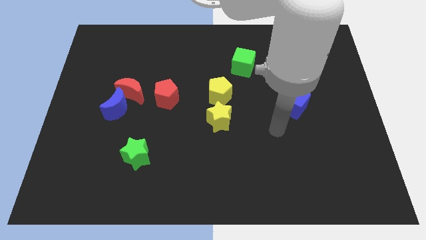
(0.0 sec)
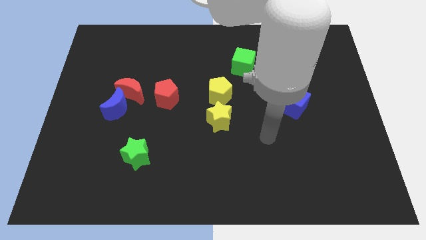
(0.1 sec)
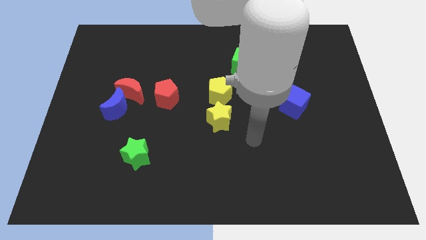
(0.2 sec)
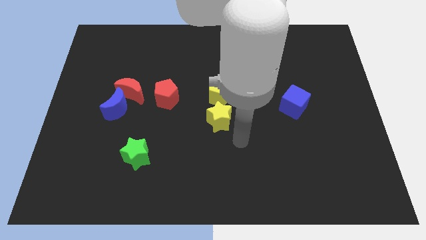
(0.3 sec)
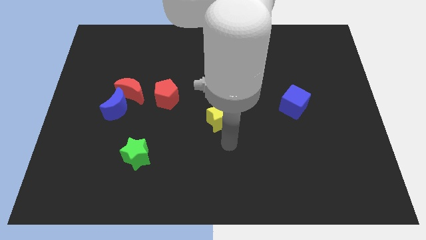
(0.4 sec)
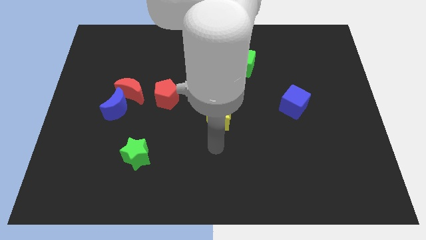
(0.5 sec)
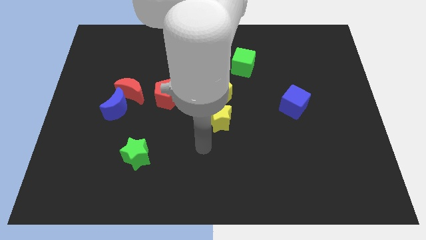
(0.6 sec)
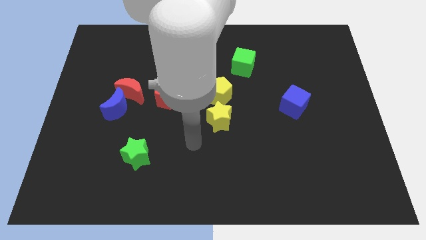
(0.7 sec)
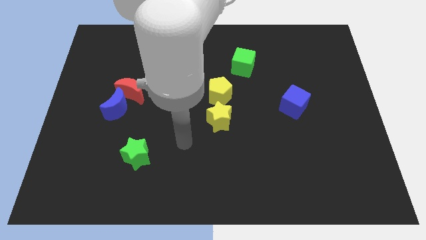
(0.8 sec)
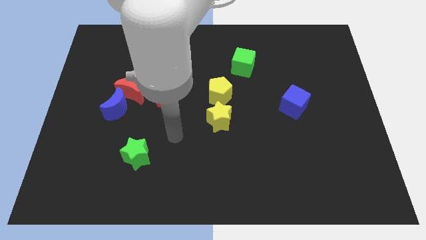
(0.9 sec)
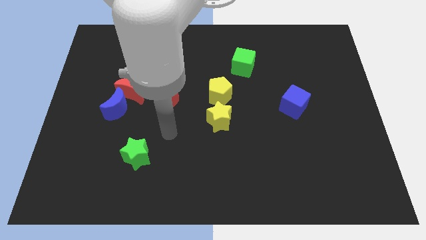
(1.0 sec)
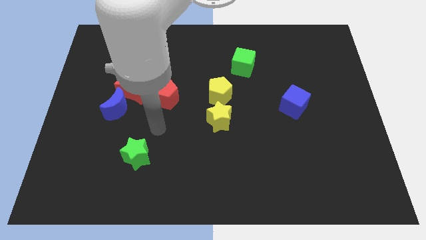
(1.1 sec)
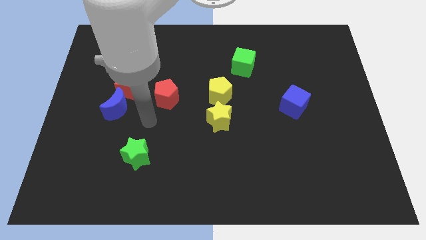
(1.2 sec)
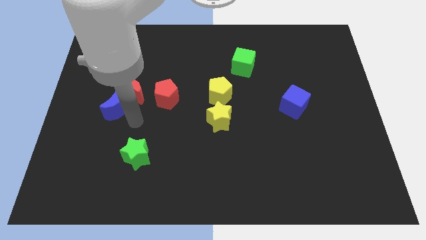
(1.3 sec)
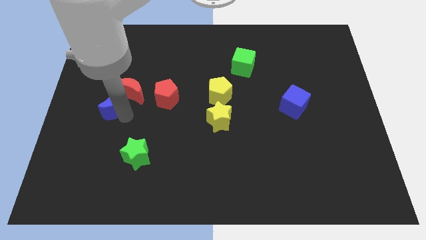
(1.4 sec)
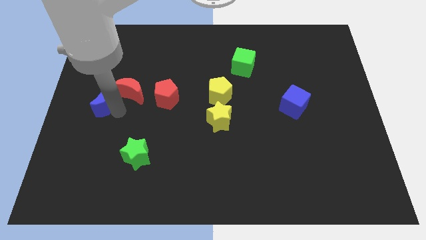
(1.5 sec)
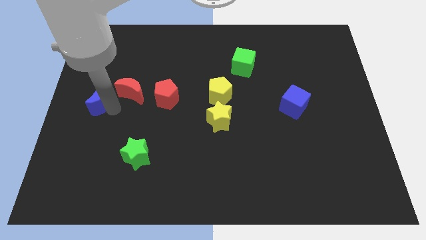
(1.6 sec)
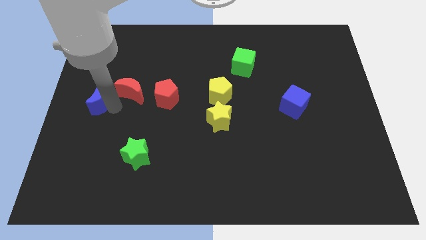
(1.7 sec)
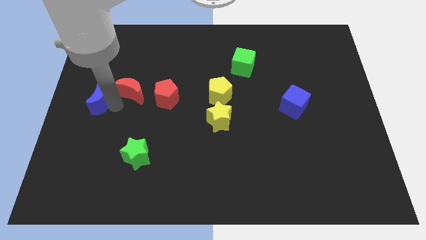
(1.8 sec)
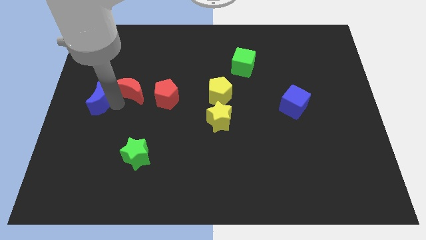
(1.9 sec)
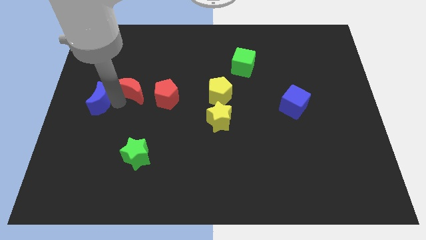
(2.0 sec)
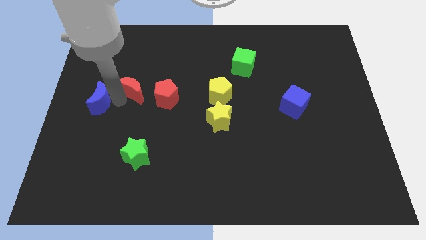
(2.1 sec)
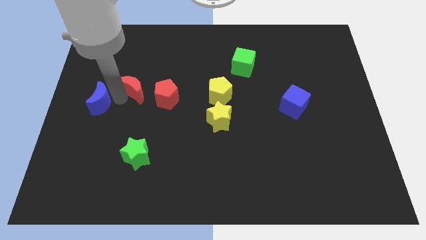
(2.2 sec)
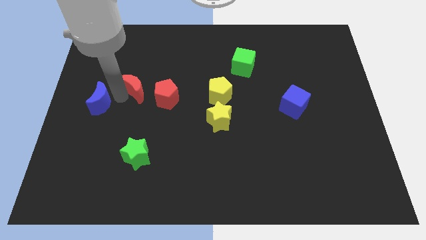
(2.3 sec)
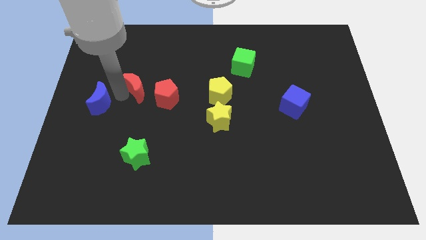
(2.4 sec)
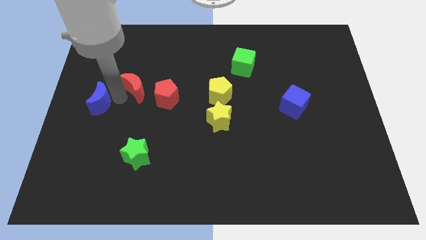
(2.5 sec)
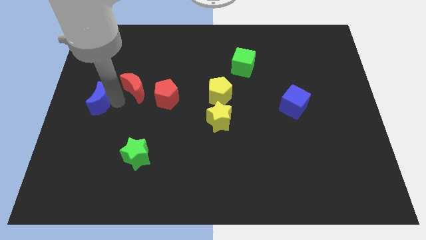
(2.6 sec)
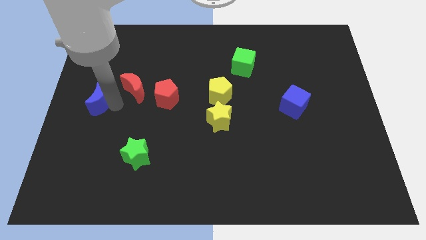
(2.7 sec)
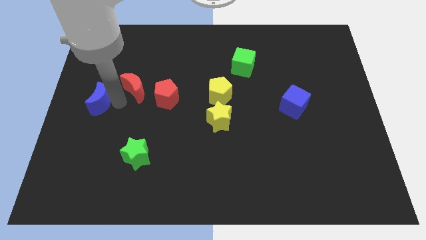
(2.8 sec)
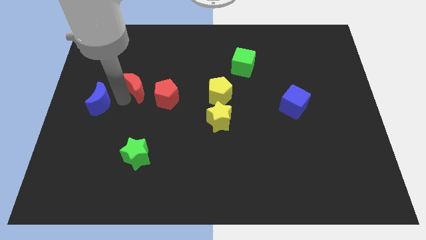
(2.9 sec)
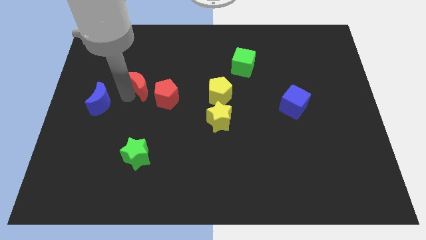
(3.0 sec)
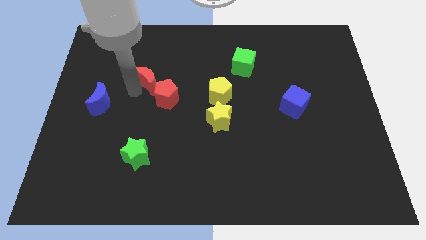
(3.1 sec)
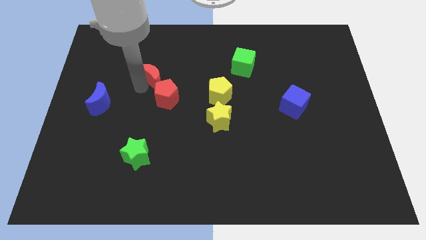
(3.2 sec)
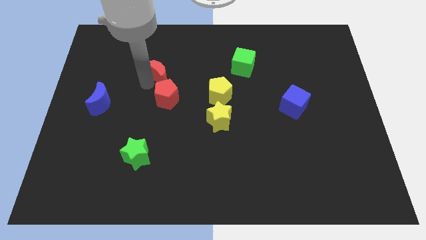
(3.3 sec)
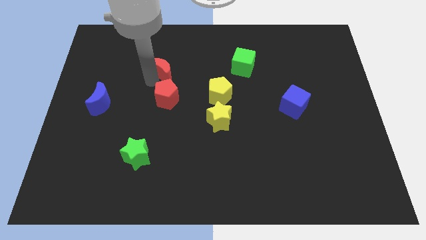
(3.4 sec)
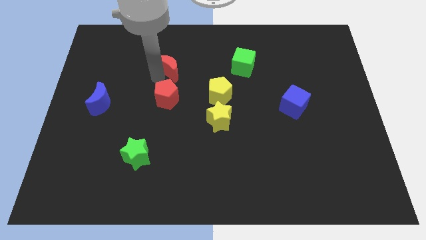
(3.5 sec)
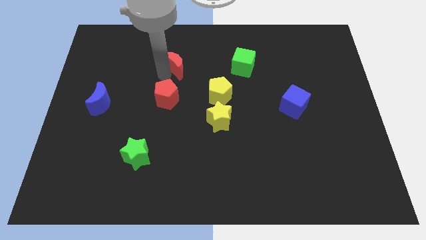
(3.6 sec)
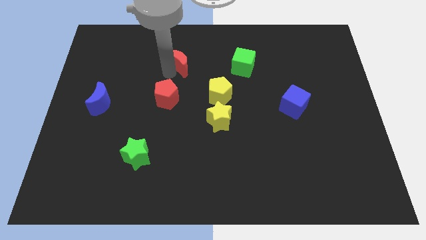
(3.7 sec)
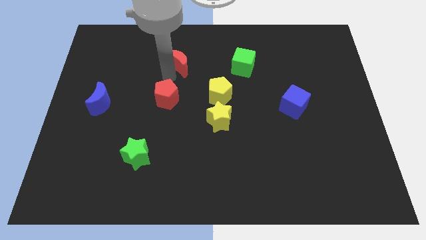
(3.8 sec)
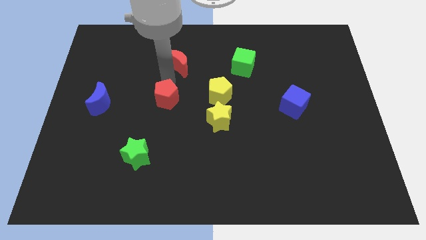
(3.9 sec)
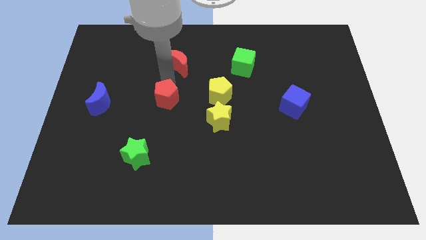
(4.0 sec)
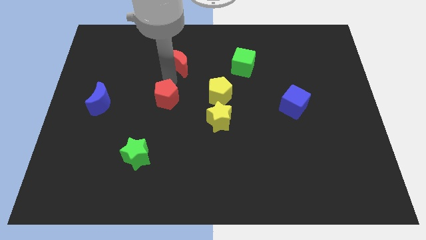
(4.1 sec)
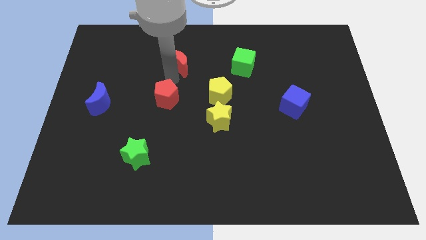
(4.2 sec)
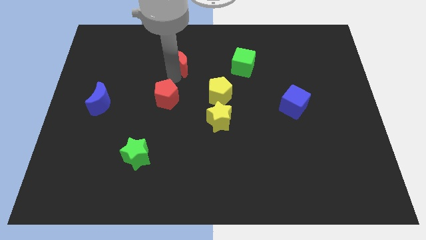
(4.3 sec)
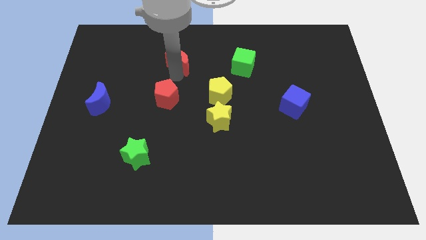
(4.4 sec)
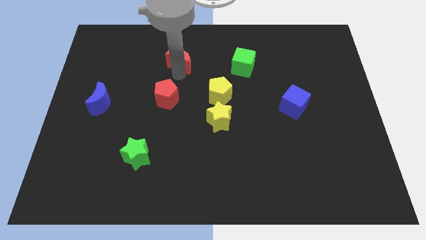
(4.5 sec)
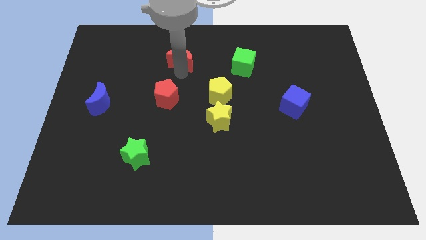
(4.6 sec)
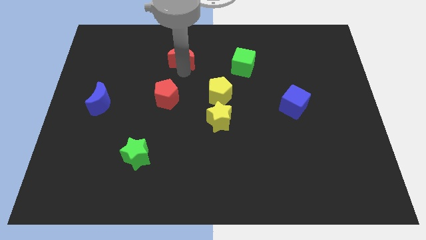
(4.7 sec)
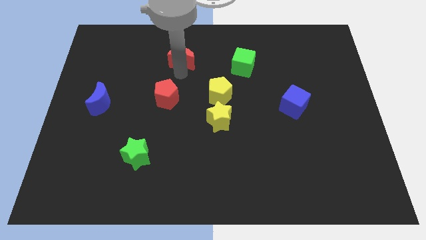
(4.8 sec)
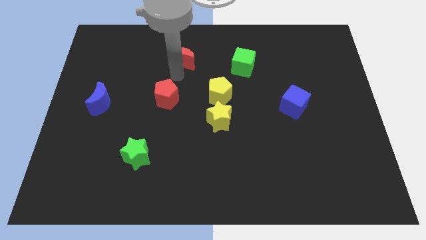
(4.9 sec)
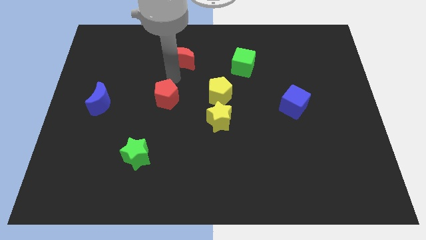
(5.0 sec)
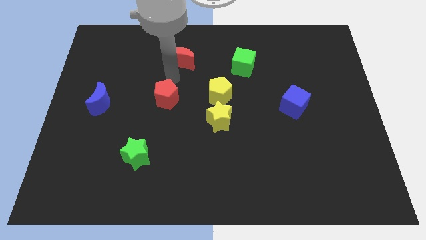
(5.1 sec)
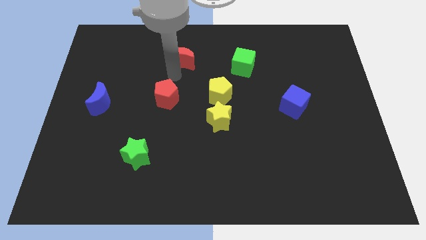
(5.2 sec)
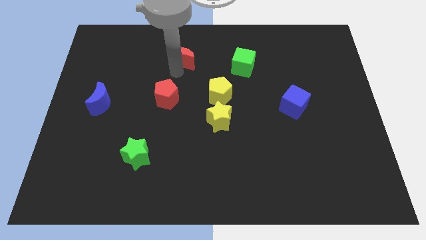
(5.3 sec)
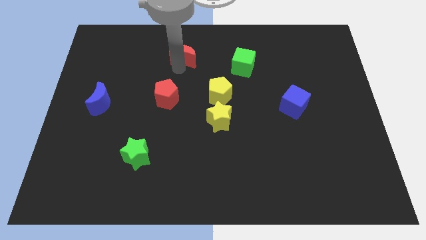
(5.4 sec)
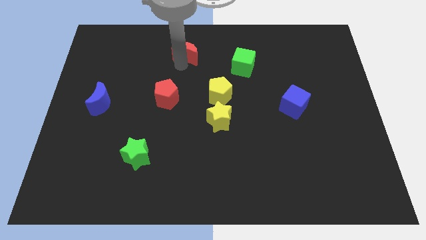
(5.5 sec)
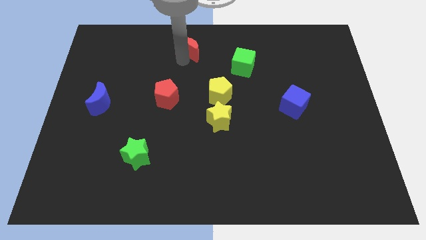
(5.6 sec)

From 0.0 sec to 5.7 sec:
move the red moon to the top

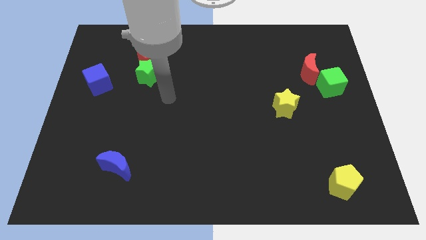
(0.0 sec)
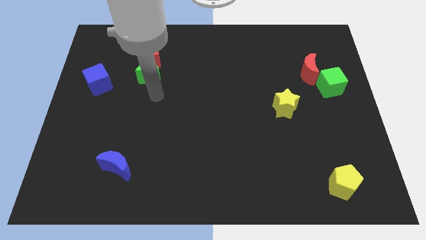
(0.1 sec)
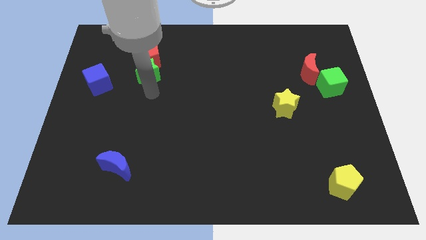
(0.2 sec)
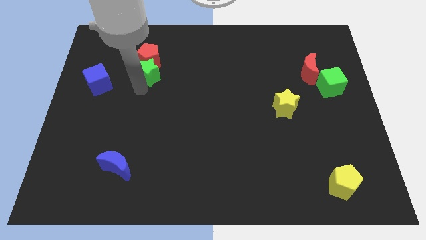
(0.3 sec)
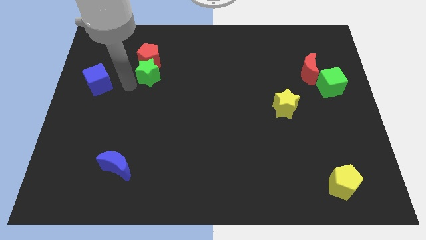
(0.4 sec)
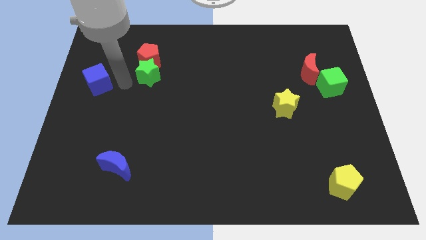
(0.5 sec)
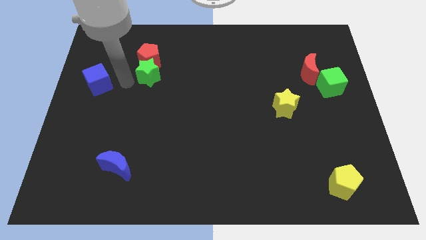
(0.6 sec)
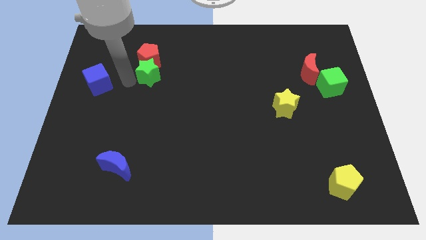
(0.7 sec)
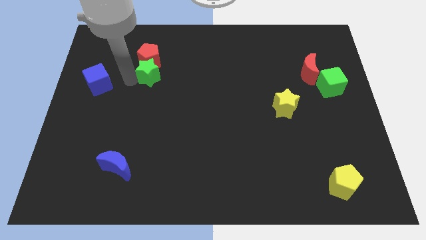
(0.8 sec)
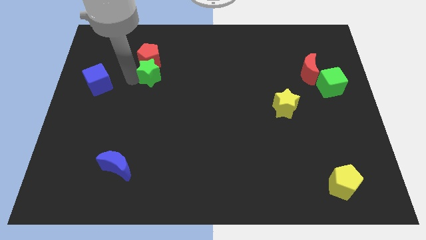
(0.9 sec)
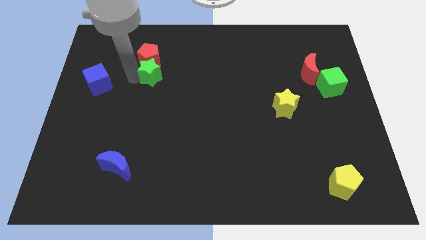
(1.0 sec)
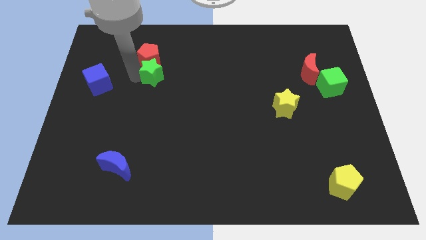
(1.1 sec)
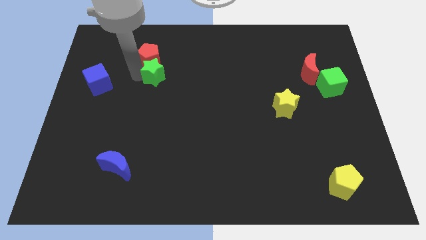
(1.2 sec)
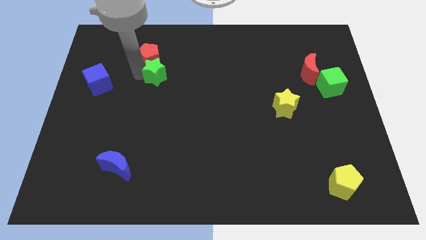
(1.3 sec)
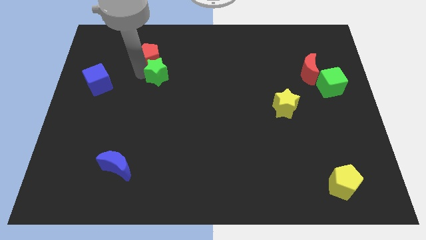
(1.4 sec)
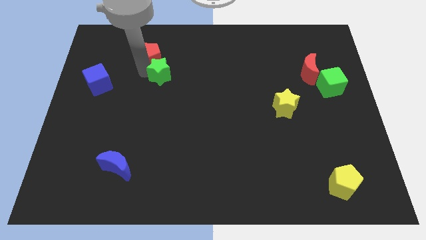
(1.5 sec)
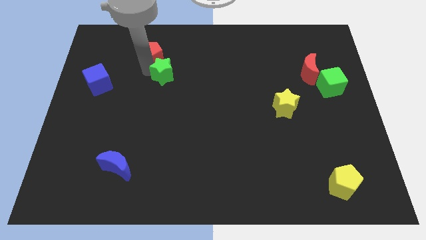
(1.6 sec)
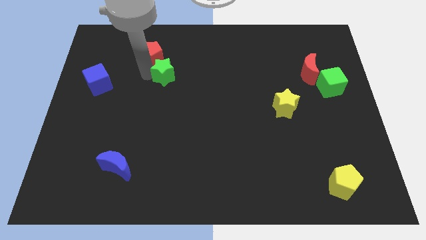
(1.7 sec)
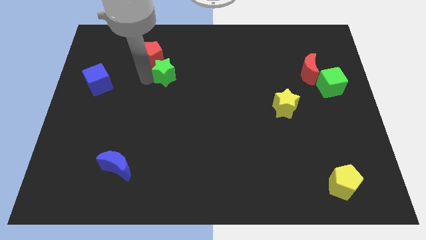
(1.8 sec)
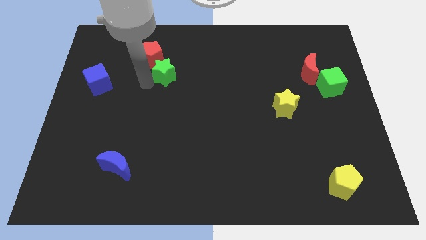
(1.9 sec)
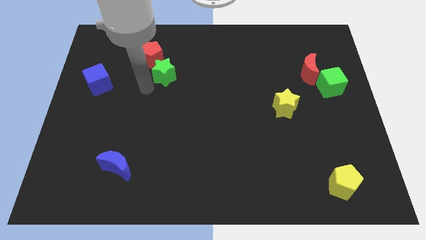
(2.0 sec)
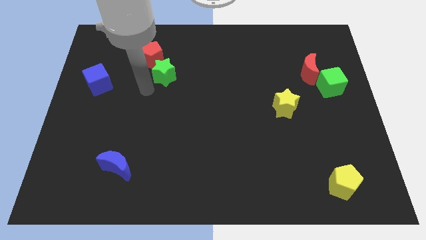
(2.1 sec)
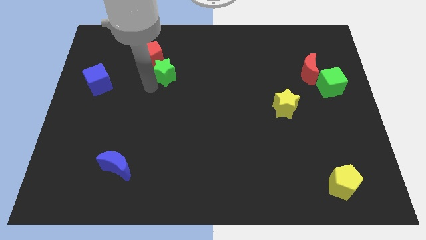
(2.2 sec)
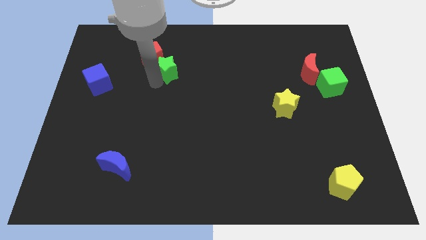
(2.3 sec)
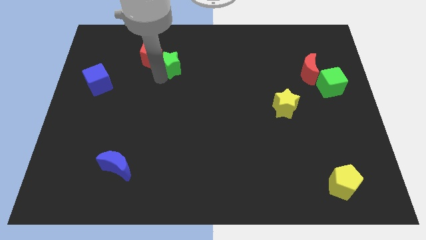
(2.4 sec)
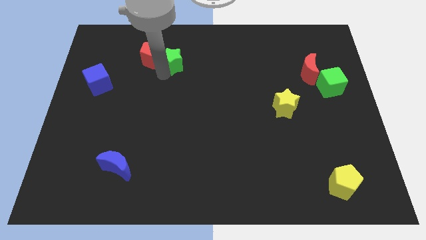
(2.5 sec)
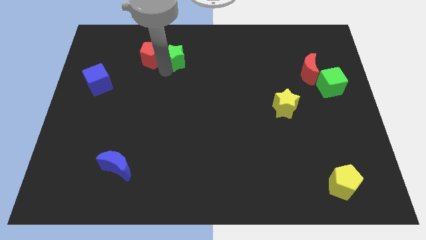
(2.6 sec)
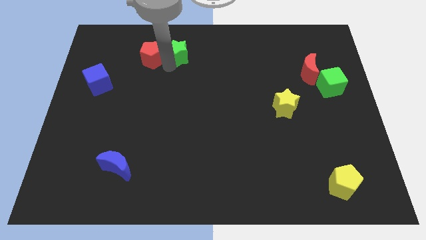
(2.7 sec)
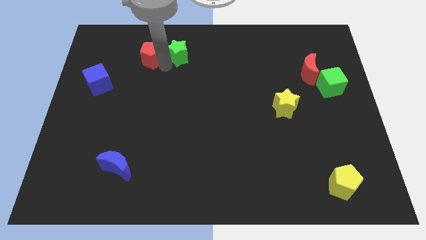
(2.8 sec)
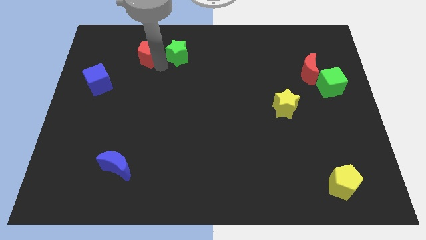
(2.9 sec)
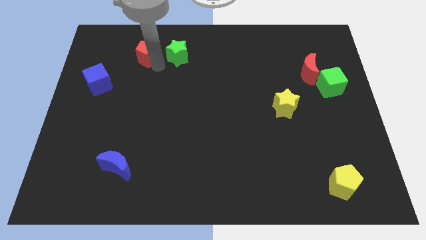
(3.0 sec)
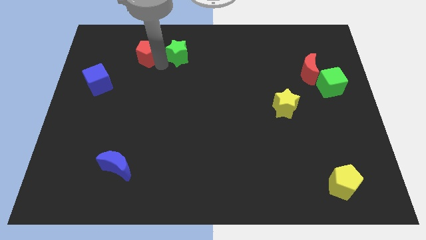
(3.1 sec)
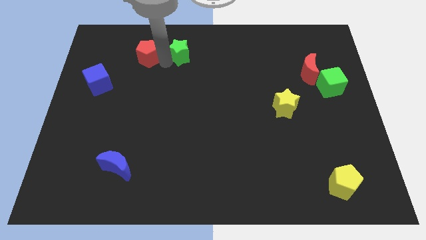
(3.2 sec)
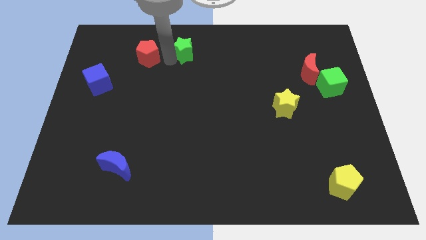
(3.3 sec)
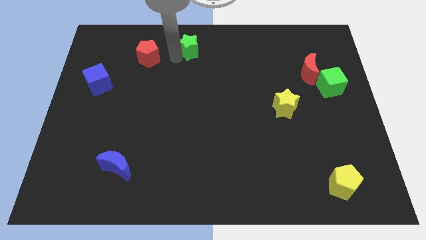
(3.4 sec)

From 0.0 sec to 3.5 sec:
move the green star to the towards your base
